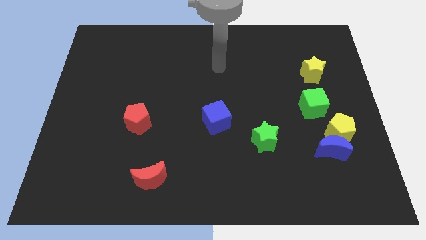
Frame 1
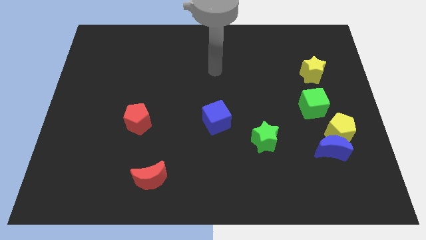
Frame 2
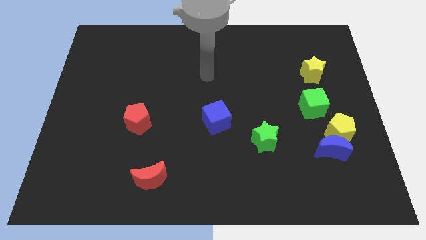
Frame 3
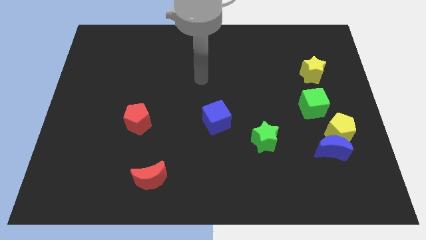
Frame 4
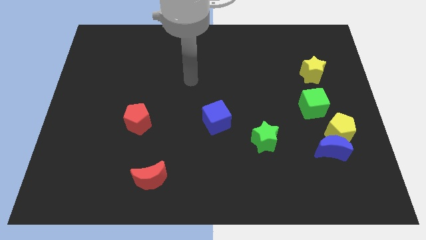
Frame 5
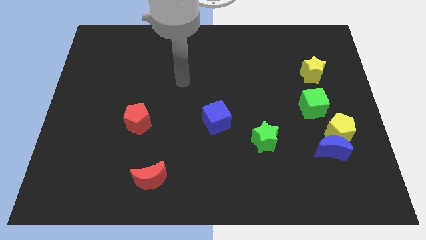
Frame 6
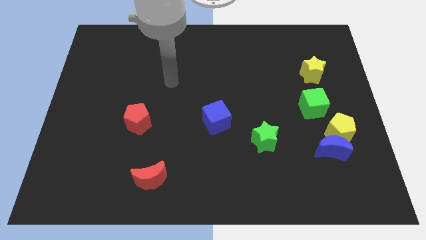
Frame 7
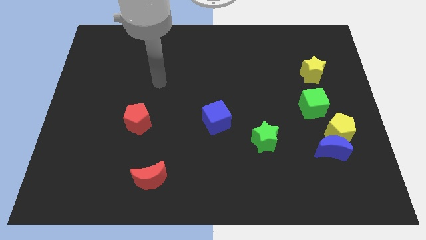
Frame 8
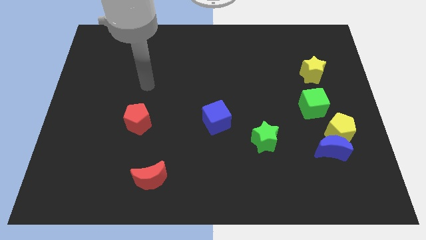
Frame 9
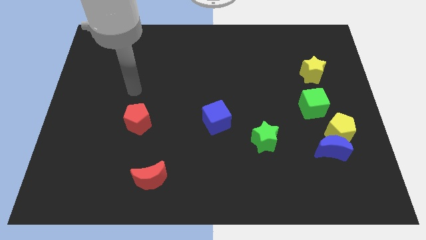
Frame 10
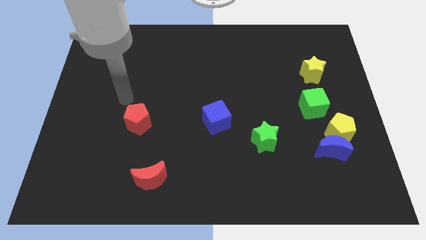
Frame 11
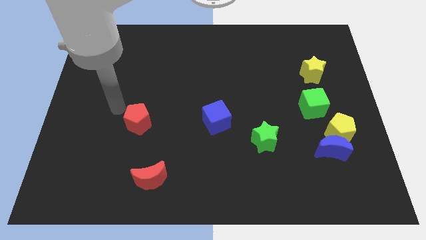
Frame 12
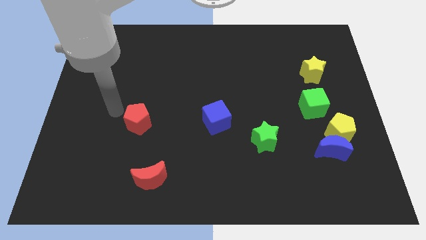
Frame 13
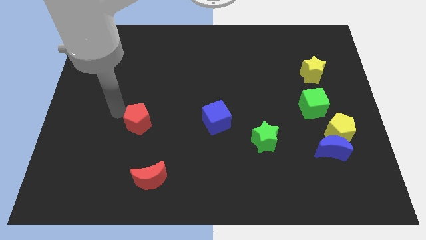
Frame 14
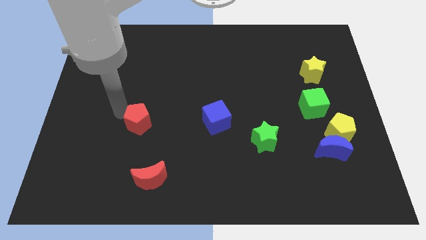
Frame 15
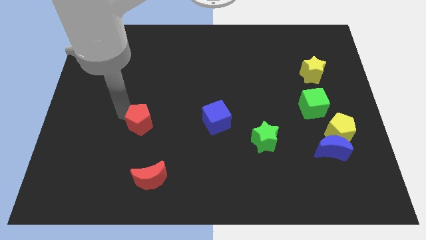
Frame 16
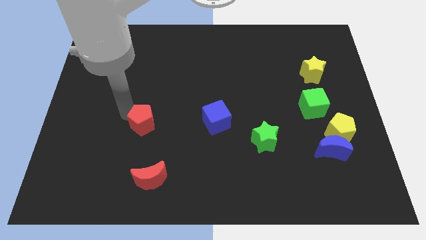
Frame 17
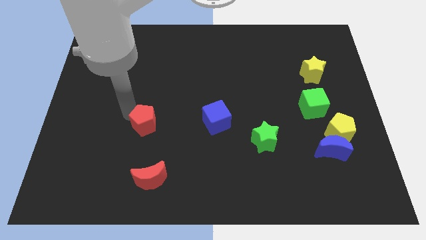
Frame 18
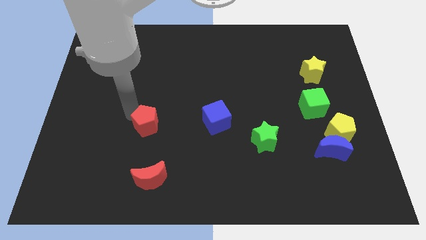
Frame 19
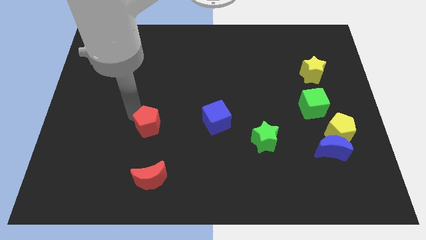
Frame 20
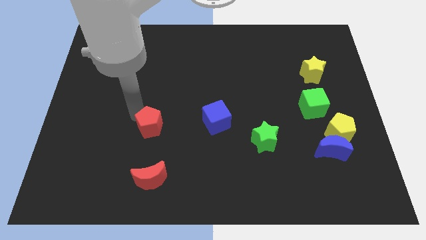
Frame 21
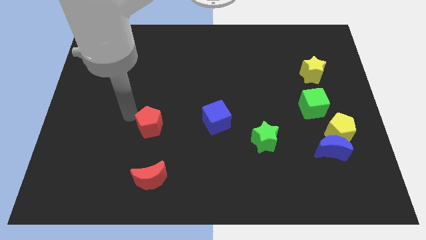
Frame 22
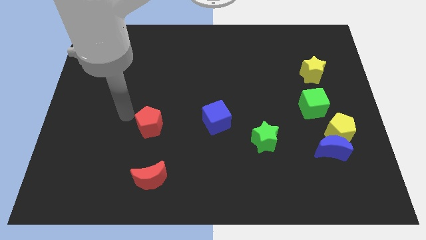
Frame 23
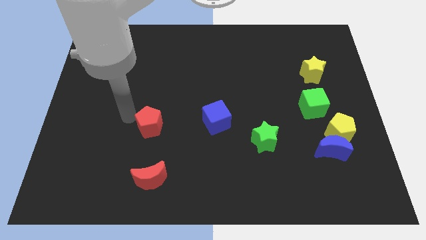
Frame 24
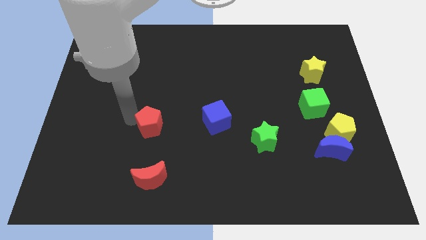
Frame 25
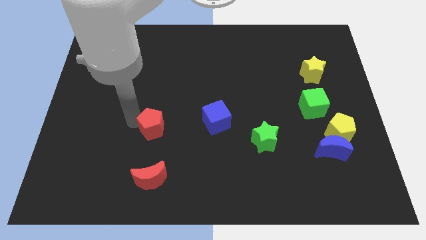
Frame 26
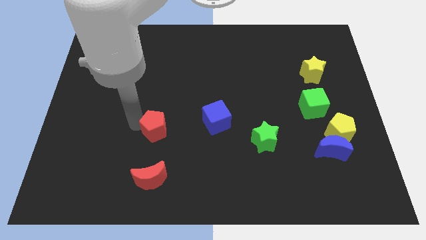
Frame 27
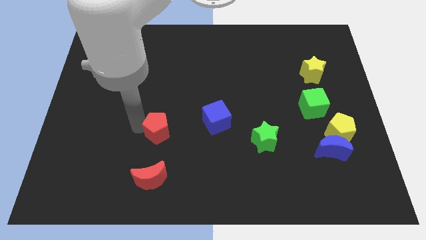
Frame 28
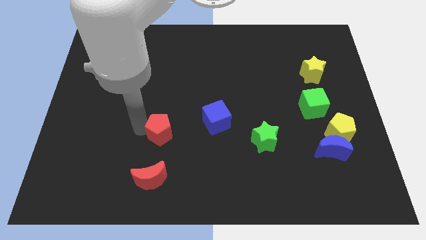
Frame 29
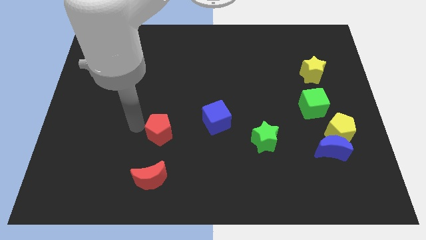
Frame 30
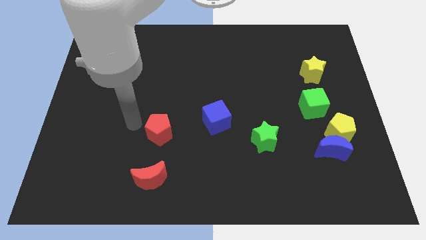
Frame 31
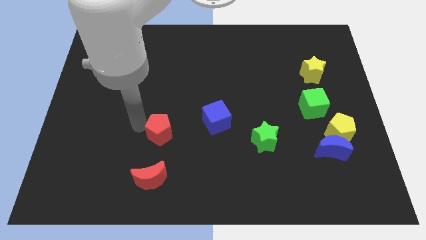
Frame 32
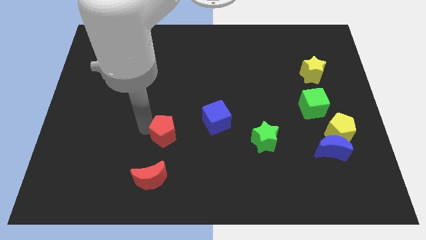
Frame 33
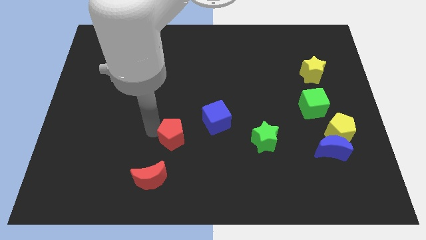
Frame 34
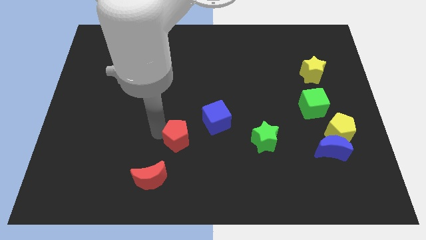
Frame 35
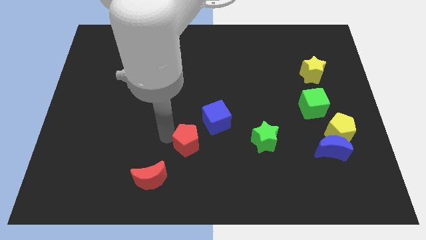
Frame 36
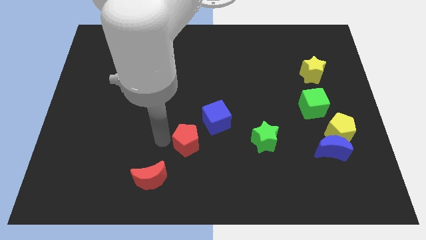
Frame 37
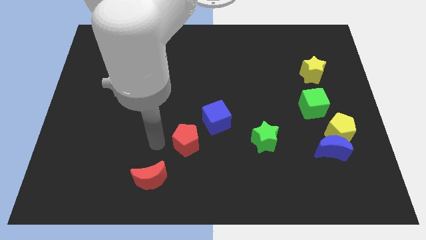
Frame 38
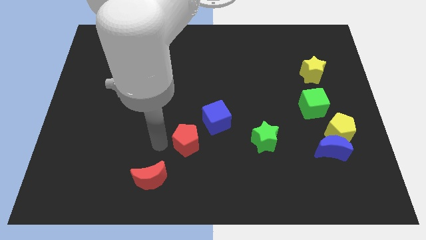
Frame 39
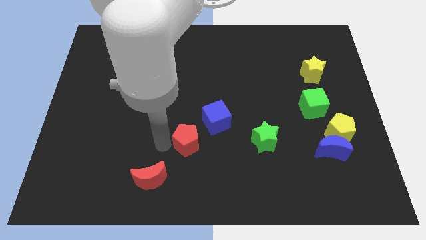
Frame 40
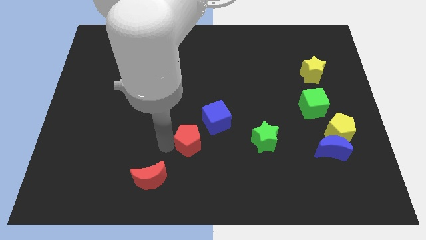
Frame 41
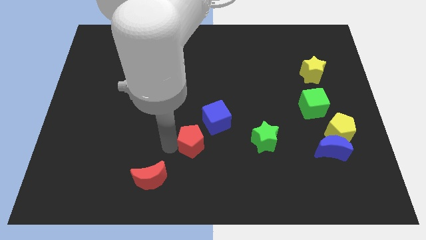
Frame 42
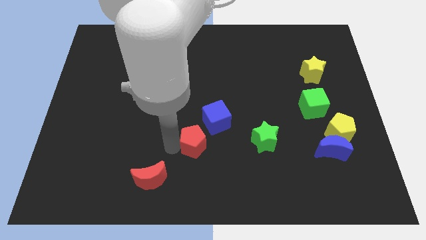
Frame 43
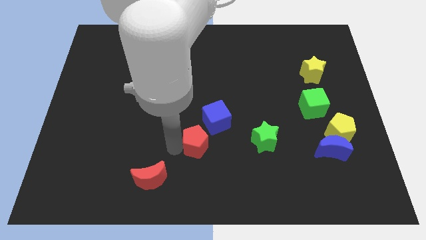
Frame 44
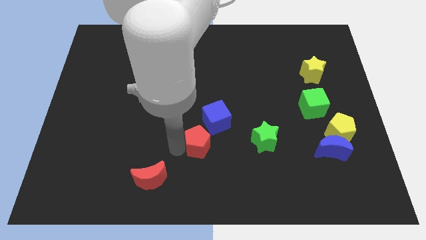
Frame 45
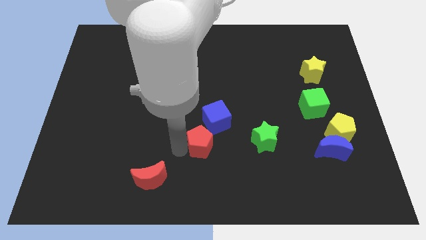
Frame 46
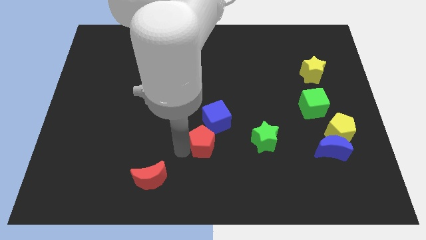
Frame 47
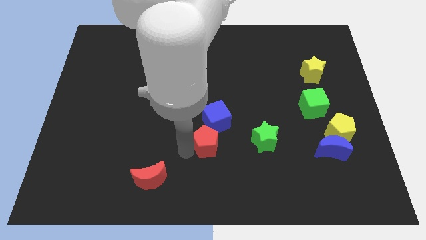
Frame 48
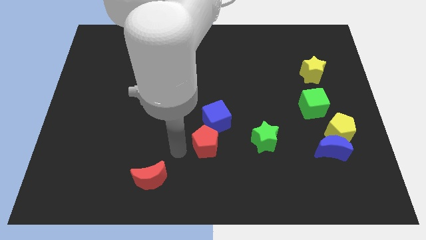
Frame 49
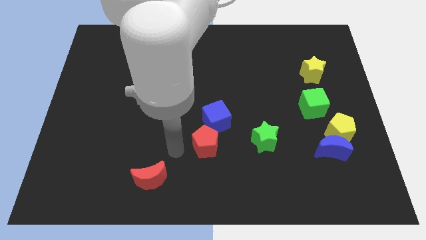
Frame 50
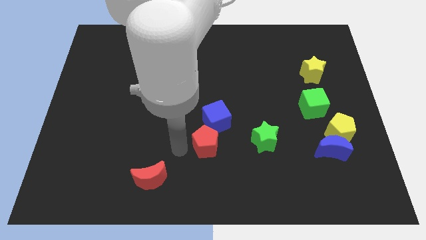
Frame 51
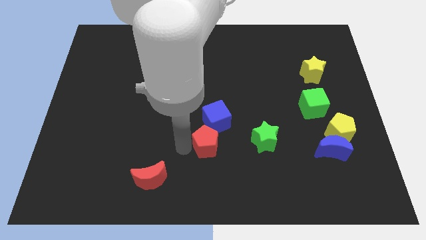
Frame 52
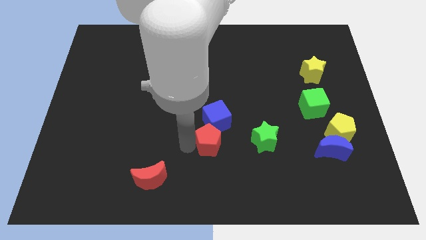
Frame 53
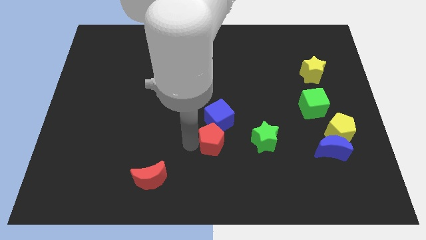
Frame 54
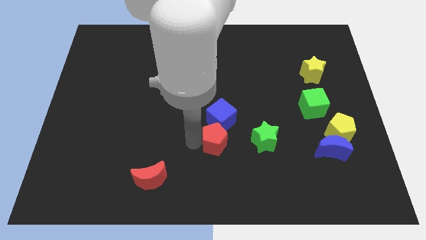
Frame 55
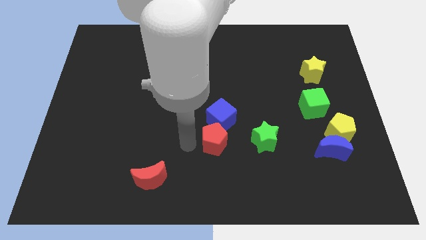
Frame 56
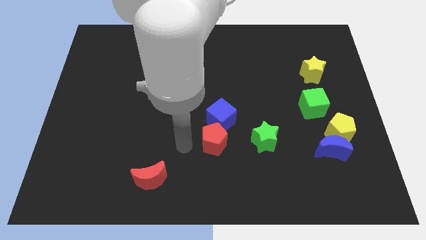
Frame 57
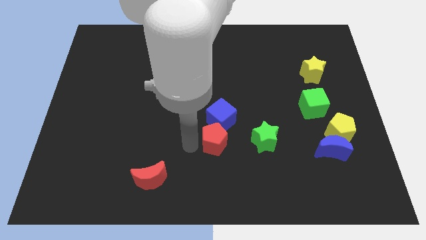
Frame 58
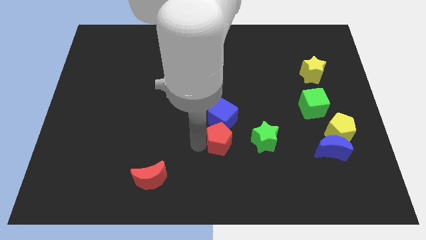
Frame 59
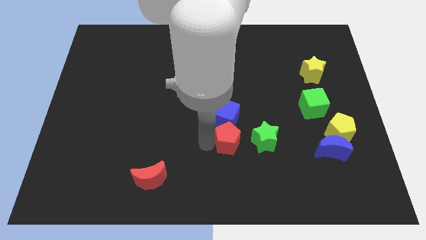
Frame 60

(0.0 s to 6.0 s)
put the red pentagon to the bottom right of the blue cube

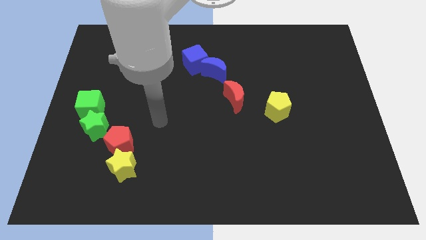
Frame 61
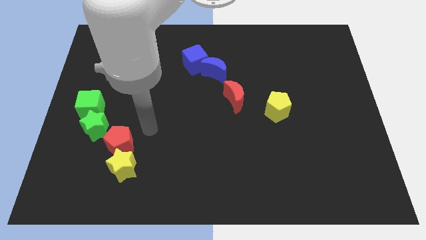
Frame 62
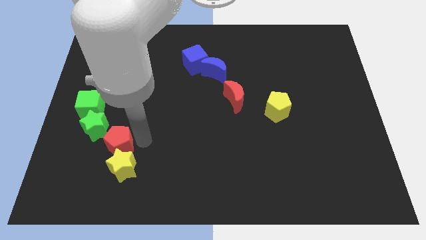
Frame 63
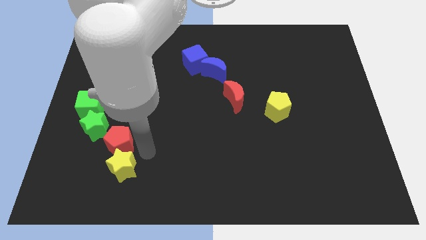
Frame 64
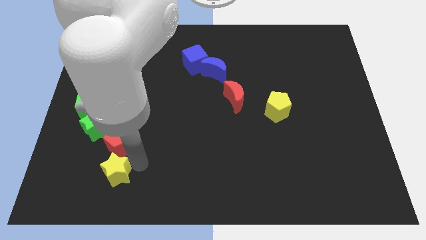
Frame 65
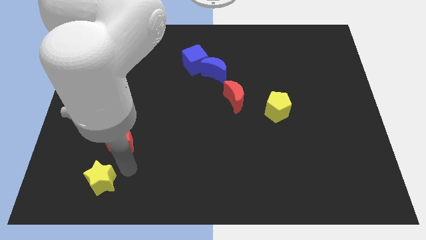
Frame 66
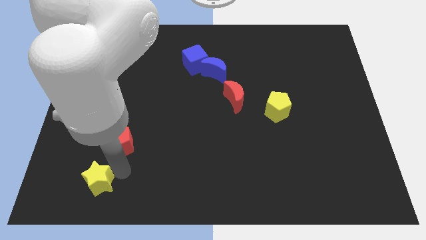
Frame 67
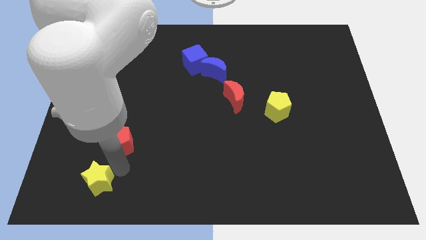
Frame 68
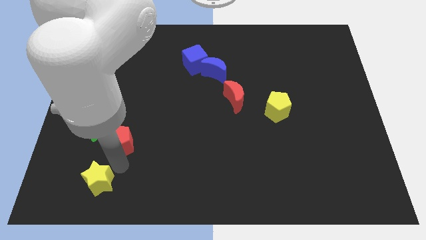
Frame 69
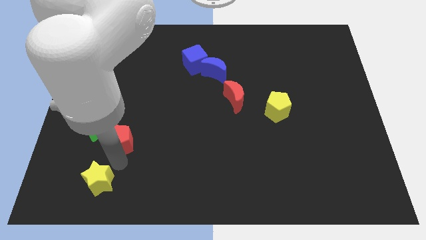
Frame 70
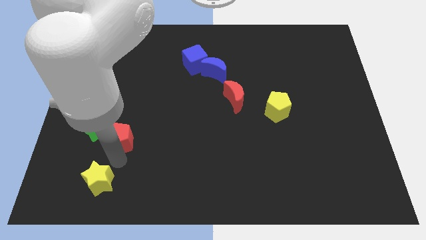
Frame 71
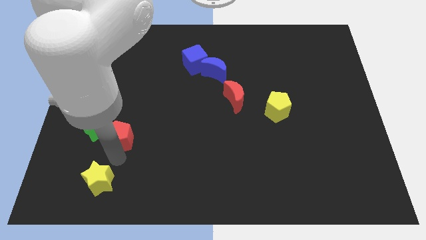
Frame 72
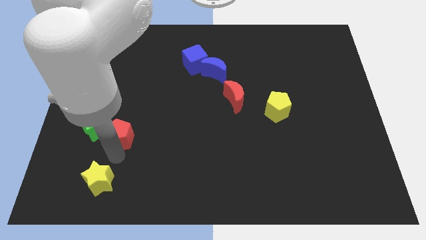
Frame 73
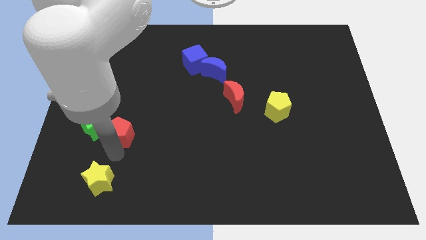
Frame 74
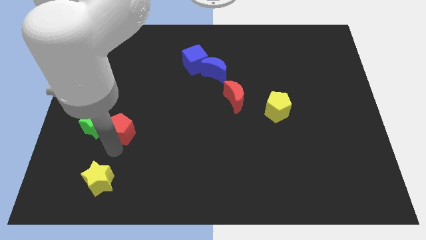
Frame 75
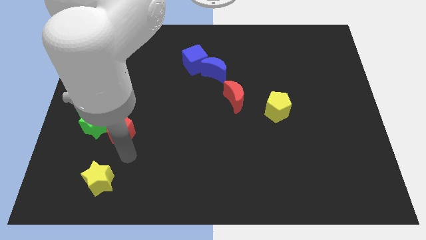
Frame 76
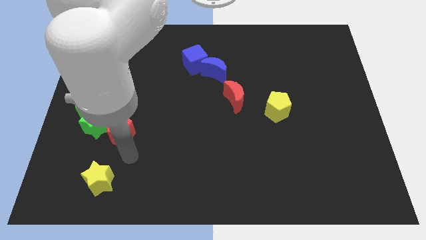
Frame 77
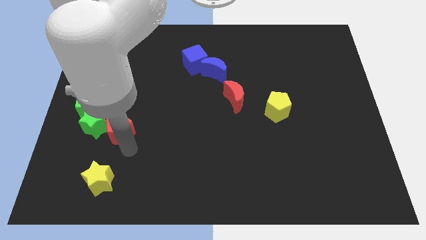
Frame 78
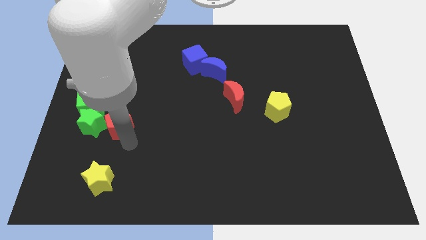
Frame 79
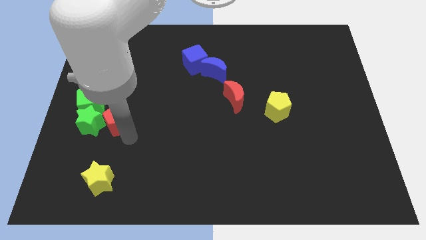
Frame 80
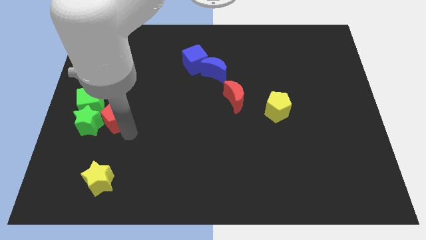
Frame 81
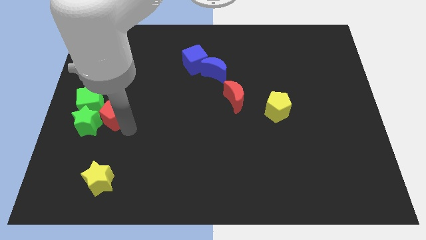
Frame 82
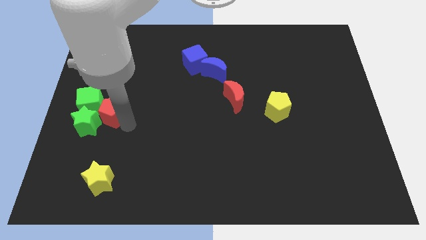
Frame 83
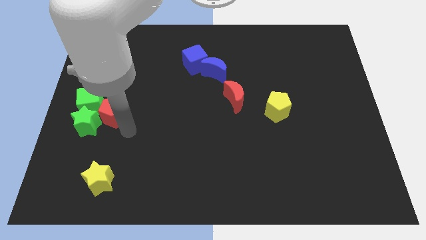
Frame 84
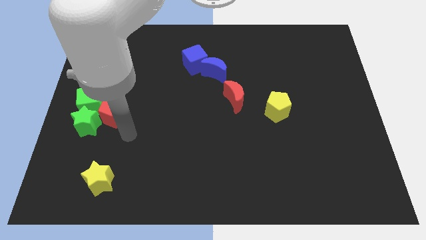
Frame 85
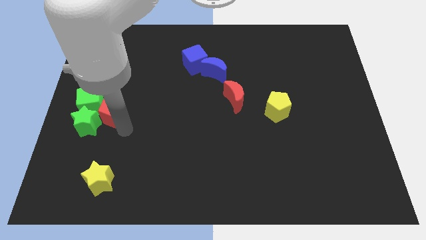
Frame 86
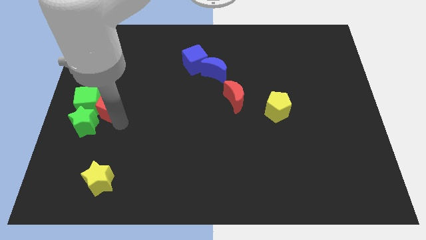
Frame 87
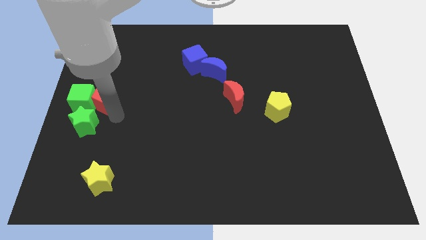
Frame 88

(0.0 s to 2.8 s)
move the red pentagon to the top of the green star
